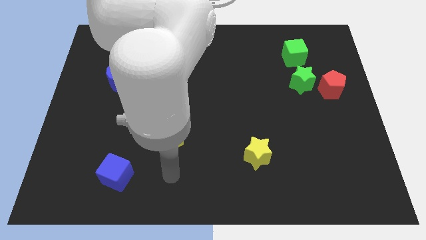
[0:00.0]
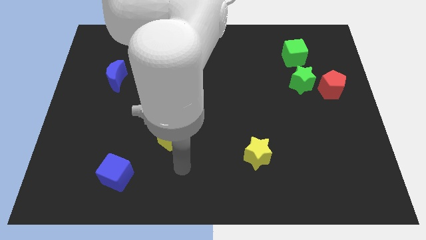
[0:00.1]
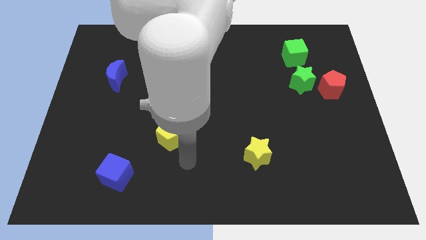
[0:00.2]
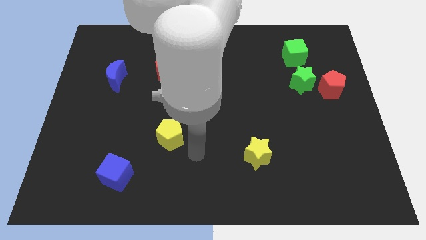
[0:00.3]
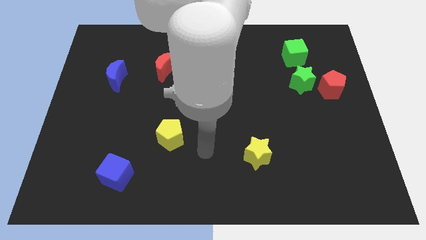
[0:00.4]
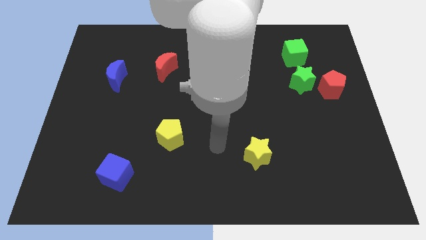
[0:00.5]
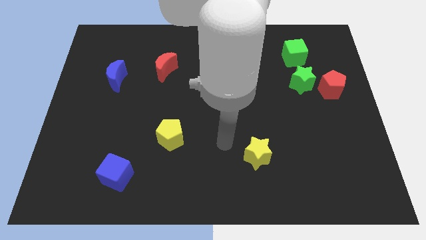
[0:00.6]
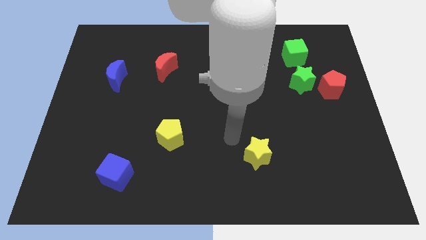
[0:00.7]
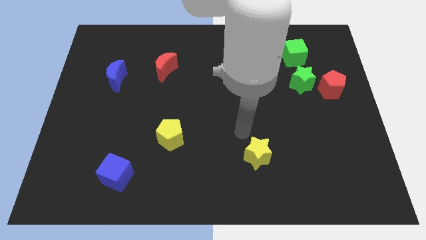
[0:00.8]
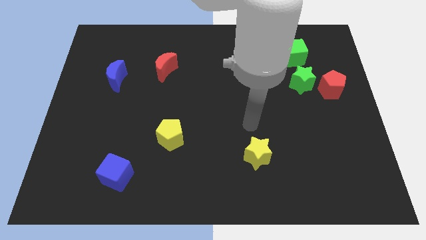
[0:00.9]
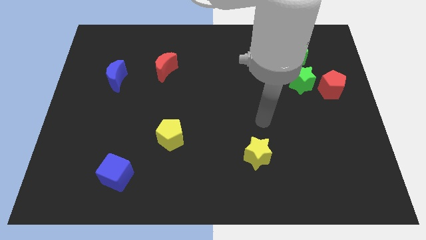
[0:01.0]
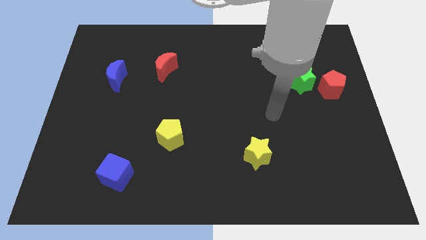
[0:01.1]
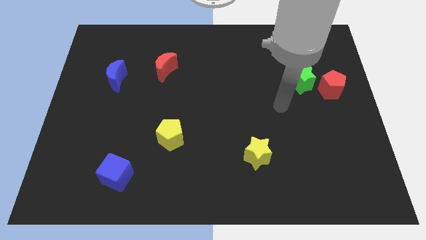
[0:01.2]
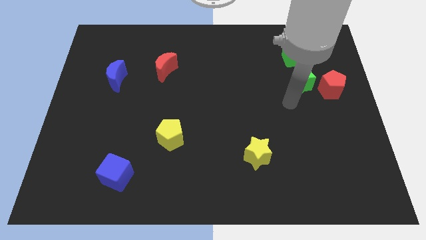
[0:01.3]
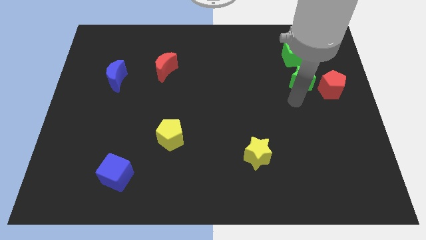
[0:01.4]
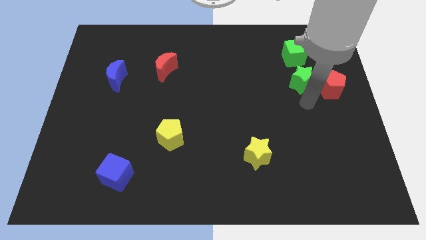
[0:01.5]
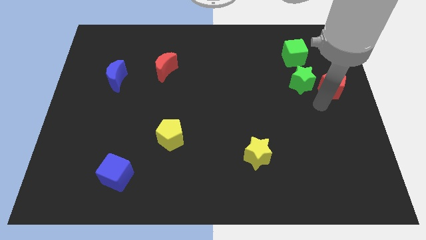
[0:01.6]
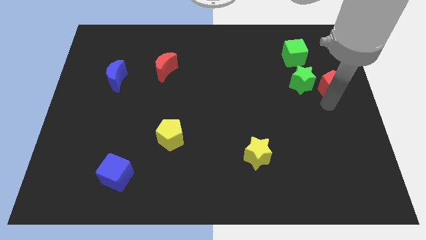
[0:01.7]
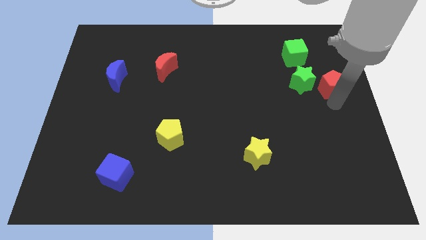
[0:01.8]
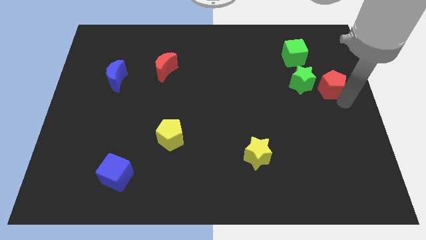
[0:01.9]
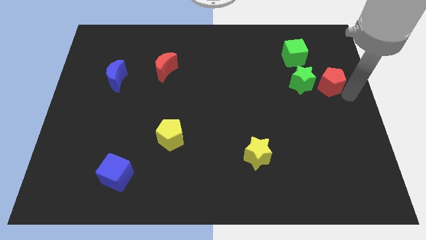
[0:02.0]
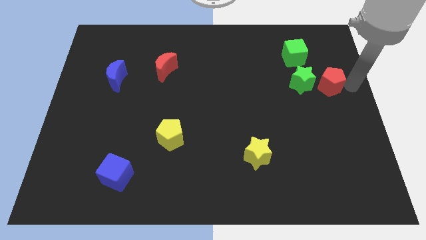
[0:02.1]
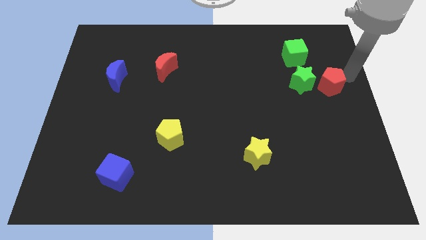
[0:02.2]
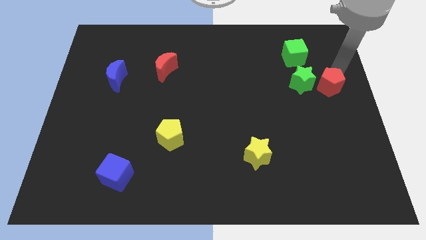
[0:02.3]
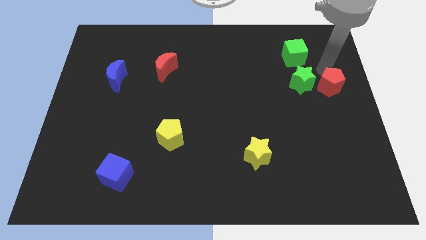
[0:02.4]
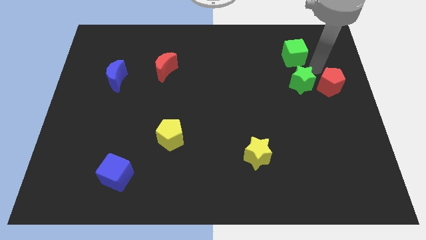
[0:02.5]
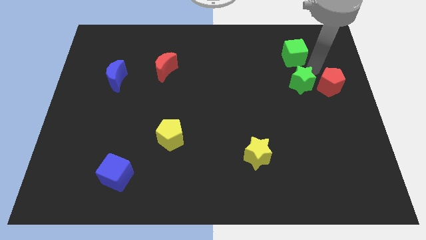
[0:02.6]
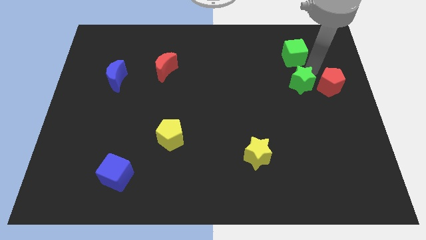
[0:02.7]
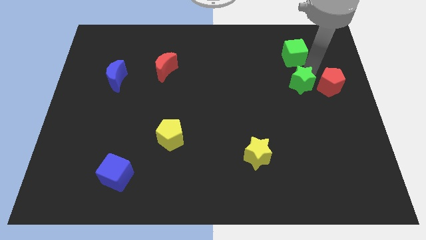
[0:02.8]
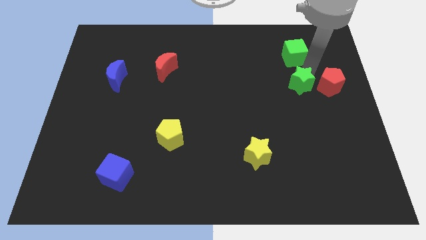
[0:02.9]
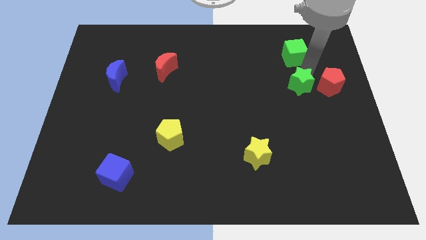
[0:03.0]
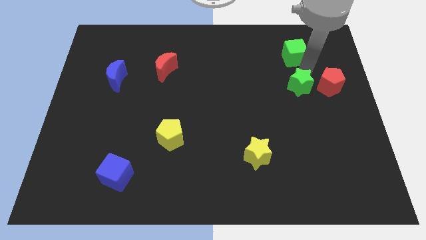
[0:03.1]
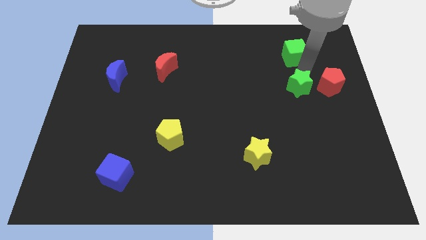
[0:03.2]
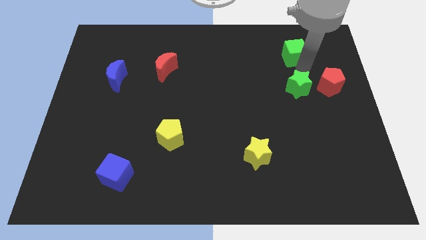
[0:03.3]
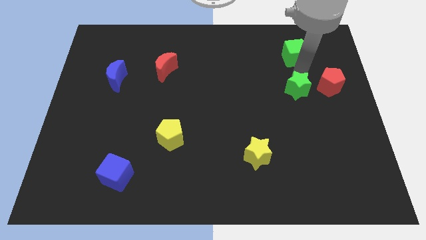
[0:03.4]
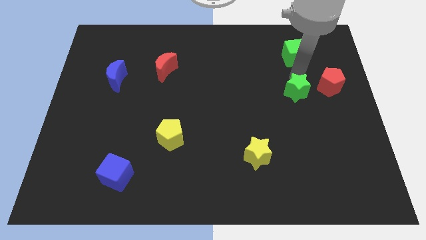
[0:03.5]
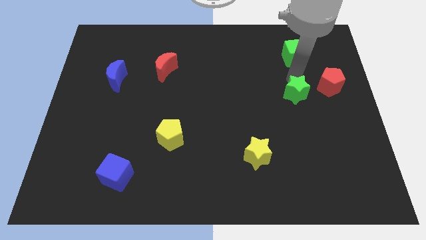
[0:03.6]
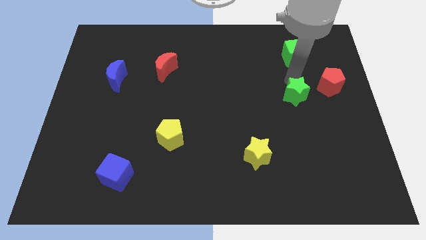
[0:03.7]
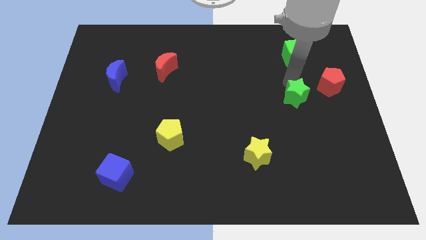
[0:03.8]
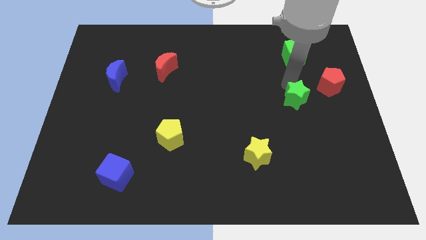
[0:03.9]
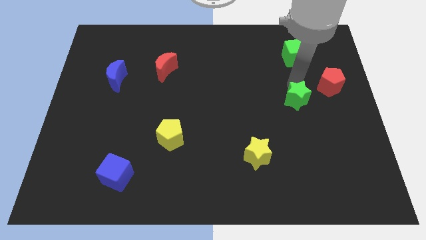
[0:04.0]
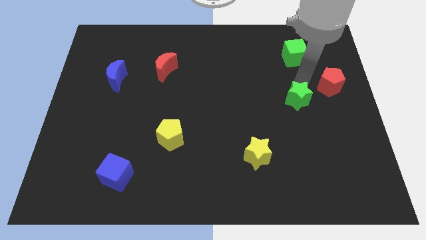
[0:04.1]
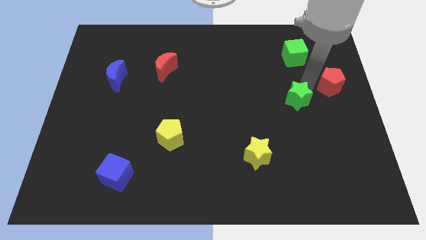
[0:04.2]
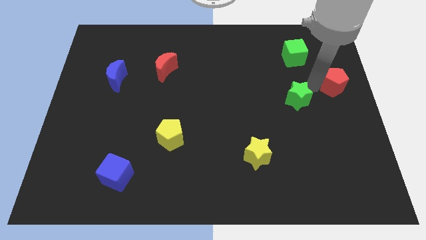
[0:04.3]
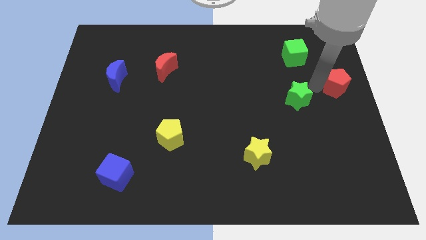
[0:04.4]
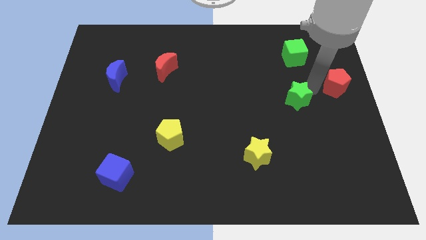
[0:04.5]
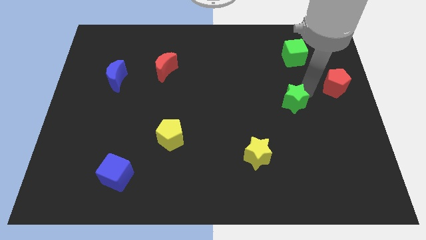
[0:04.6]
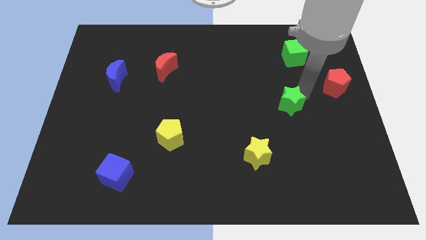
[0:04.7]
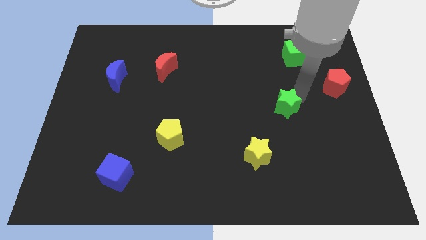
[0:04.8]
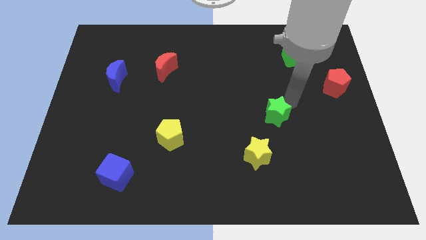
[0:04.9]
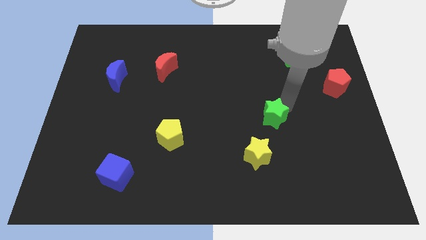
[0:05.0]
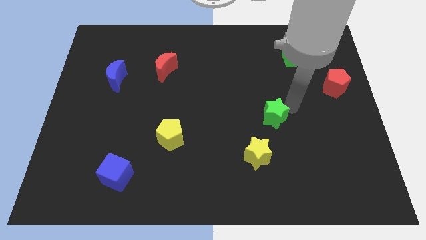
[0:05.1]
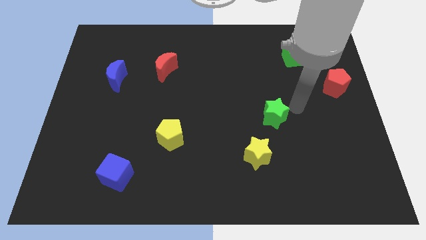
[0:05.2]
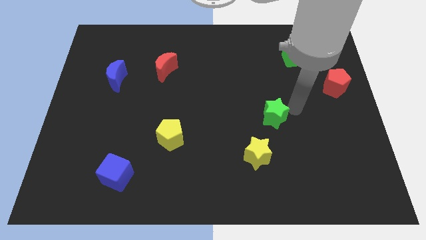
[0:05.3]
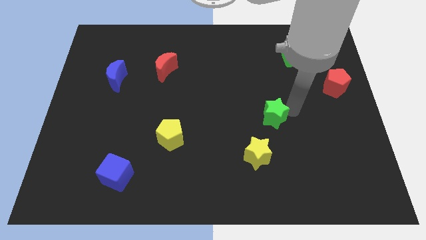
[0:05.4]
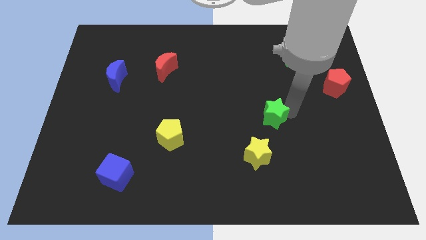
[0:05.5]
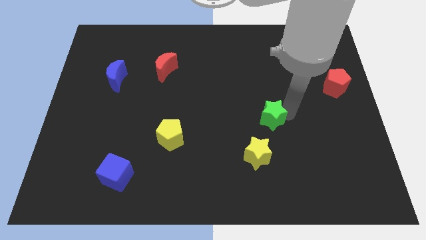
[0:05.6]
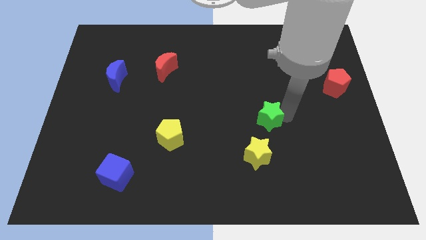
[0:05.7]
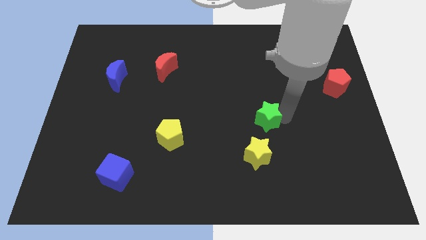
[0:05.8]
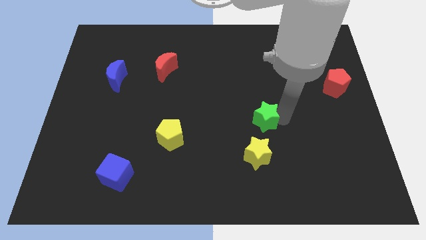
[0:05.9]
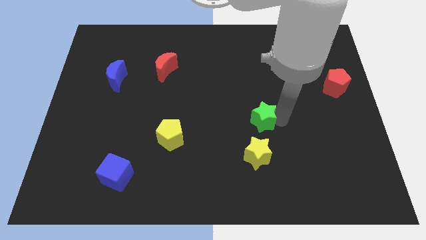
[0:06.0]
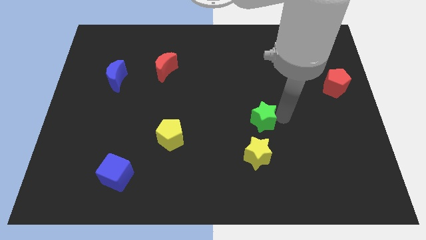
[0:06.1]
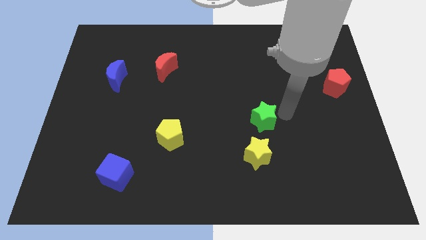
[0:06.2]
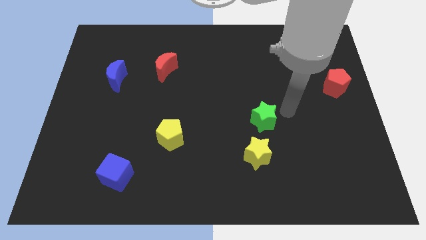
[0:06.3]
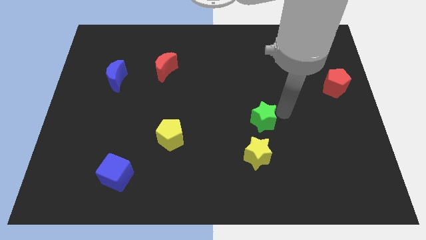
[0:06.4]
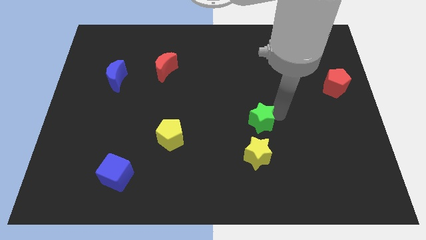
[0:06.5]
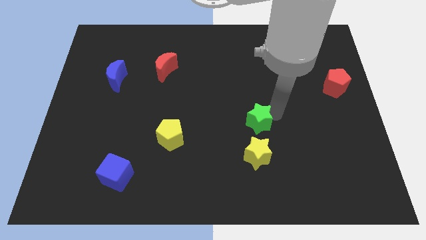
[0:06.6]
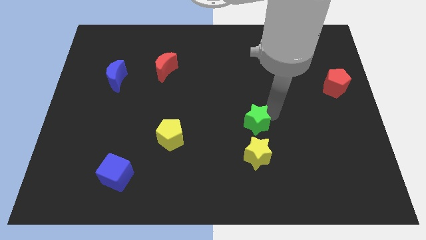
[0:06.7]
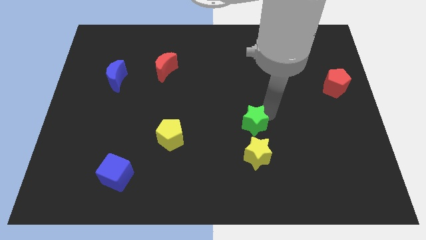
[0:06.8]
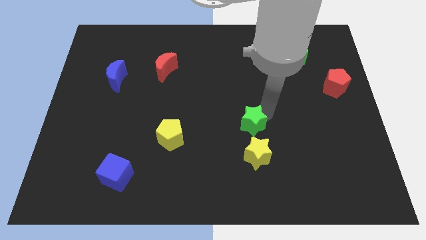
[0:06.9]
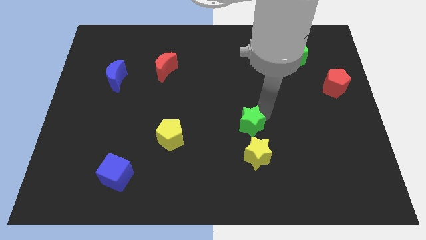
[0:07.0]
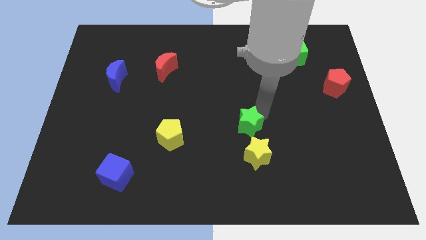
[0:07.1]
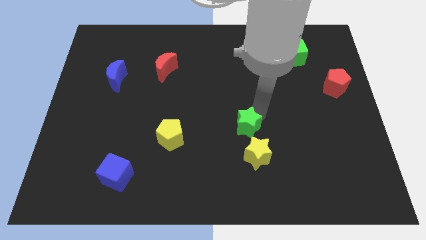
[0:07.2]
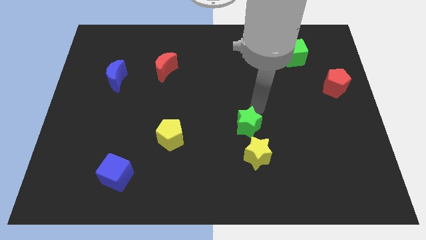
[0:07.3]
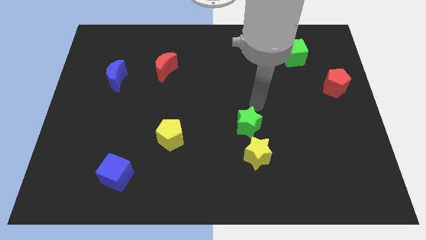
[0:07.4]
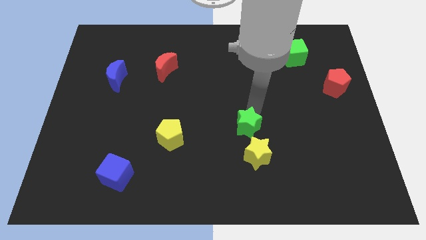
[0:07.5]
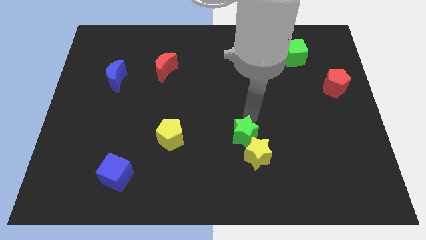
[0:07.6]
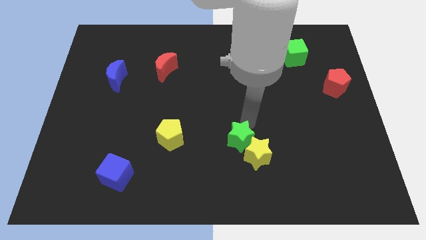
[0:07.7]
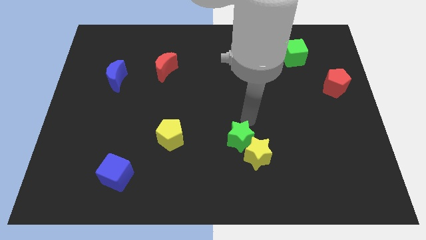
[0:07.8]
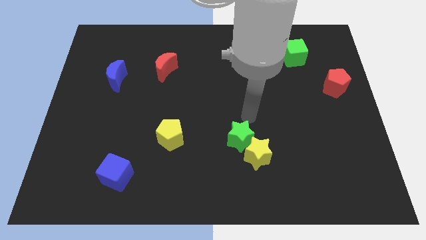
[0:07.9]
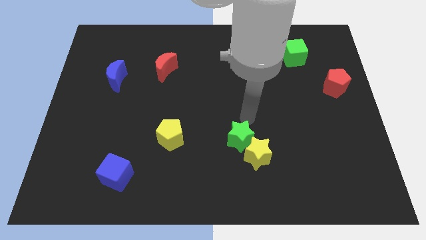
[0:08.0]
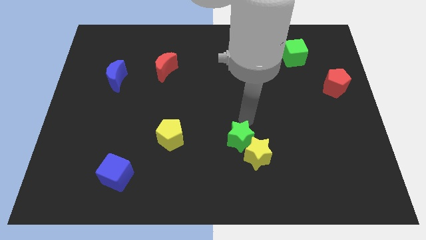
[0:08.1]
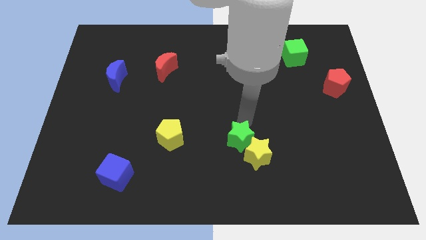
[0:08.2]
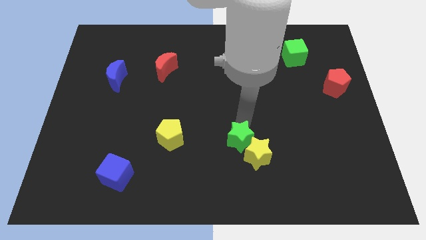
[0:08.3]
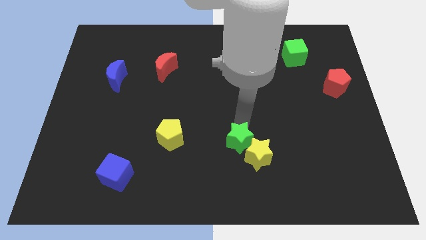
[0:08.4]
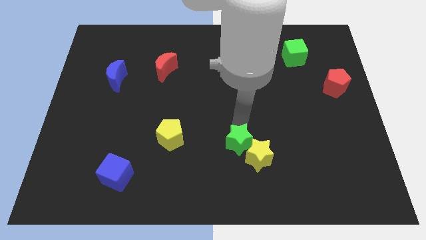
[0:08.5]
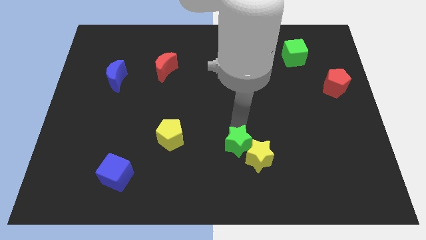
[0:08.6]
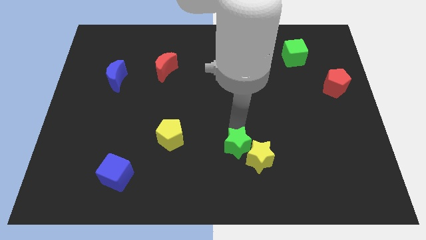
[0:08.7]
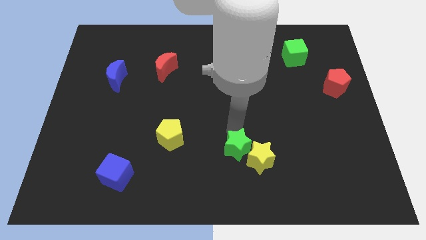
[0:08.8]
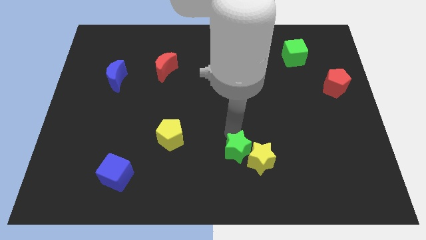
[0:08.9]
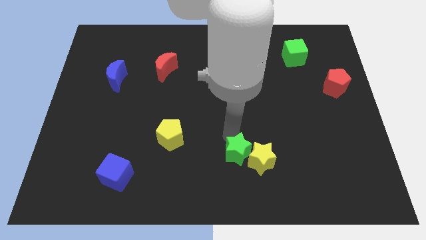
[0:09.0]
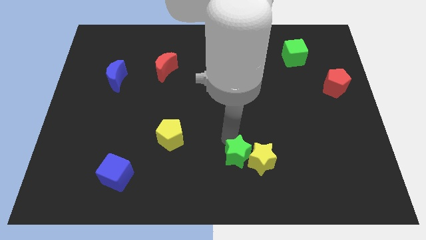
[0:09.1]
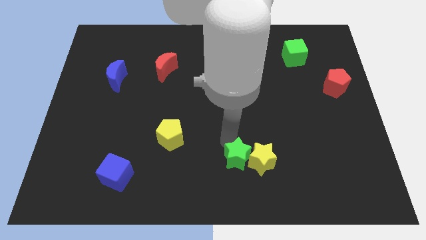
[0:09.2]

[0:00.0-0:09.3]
put the green star to the bottom
